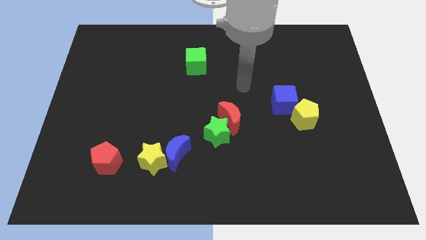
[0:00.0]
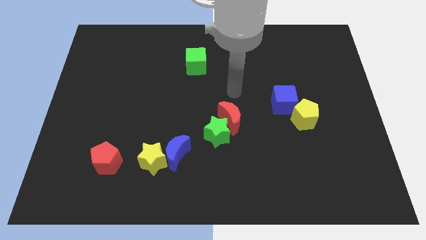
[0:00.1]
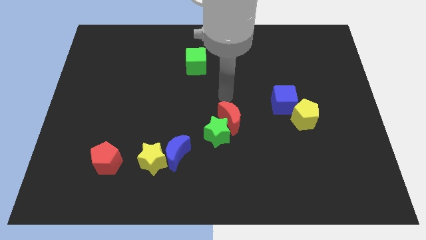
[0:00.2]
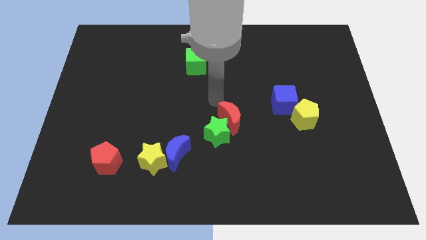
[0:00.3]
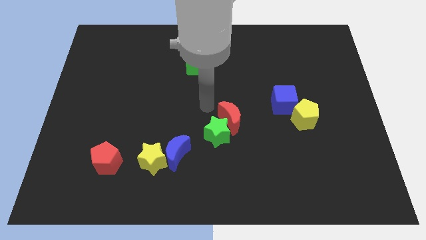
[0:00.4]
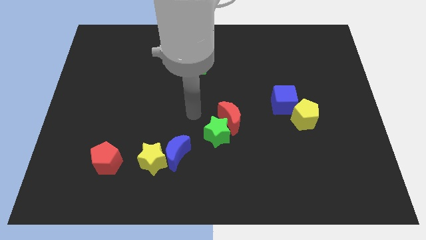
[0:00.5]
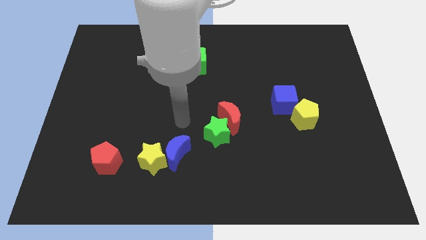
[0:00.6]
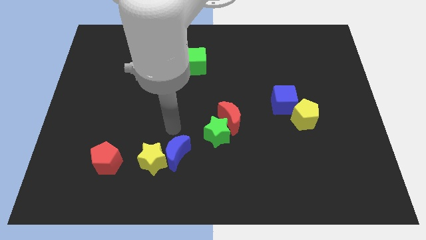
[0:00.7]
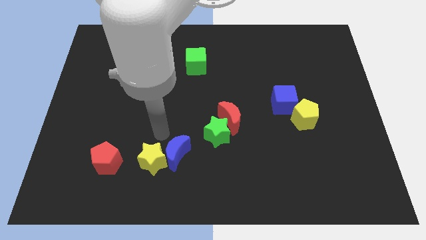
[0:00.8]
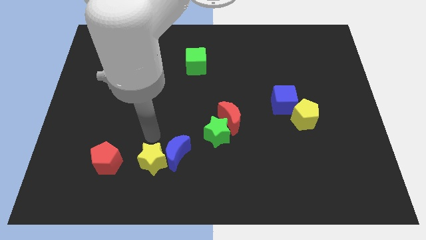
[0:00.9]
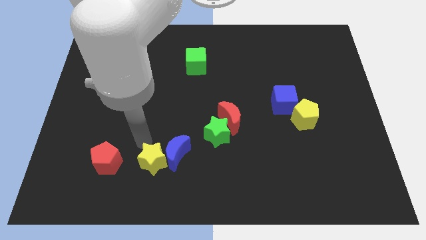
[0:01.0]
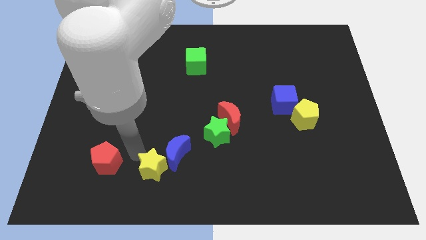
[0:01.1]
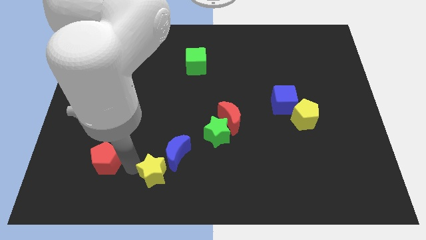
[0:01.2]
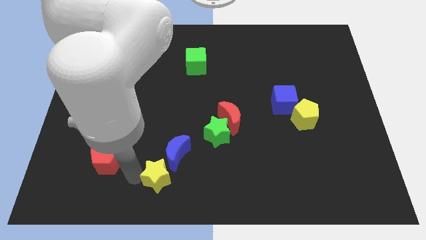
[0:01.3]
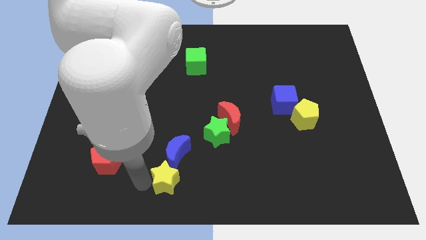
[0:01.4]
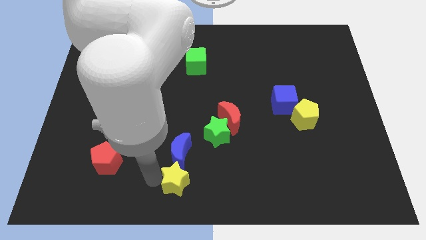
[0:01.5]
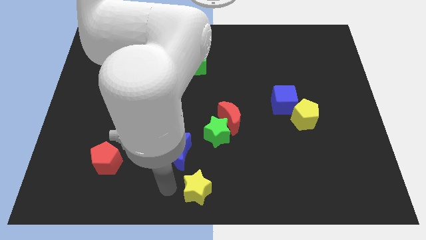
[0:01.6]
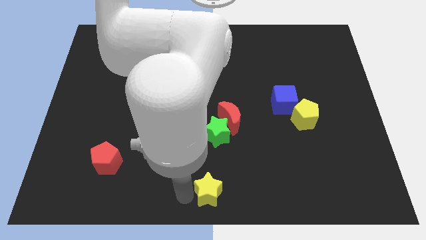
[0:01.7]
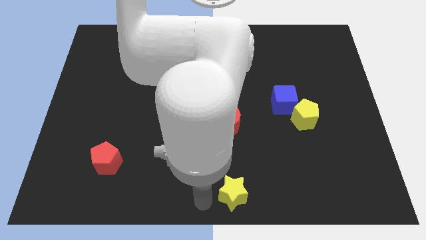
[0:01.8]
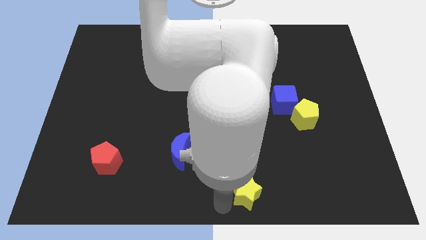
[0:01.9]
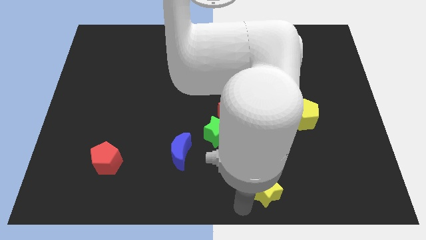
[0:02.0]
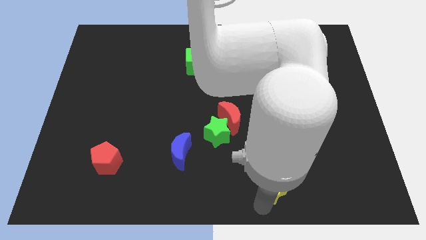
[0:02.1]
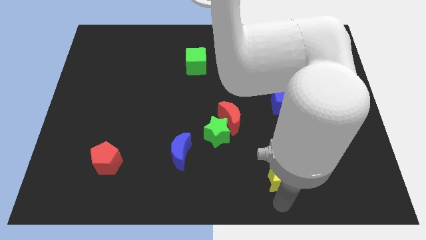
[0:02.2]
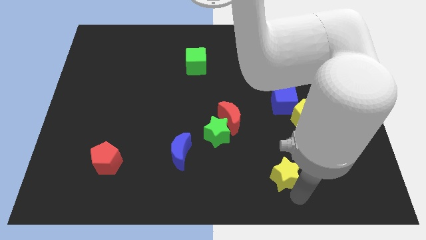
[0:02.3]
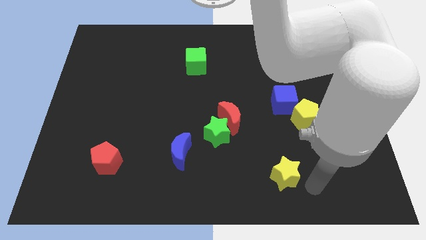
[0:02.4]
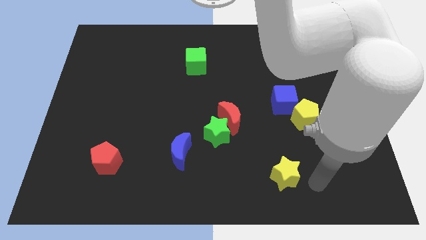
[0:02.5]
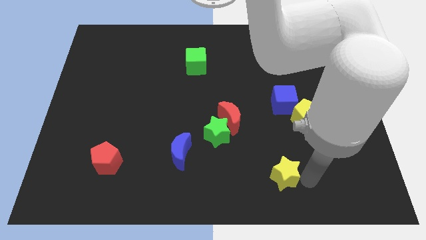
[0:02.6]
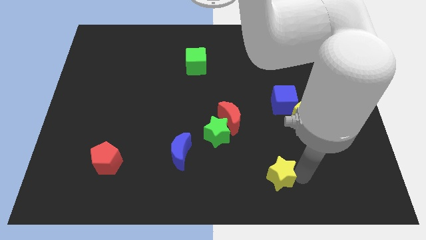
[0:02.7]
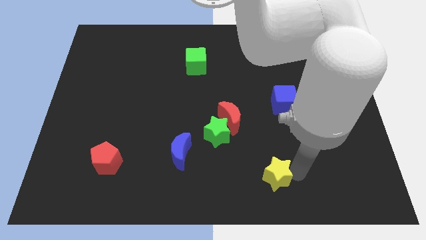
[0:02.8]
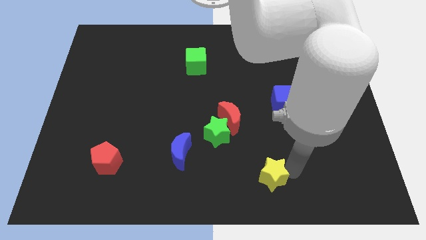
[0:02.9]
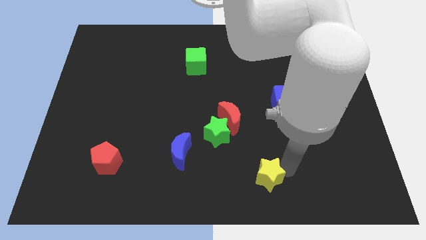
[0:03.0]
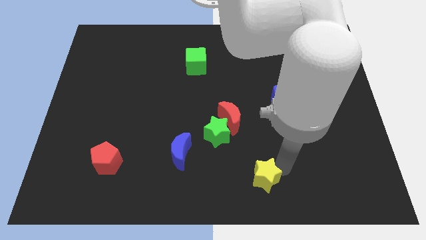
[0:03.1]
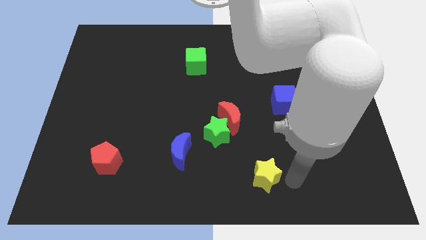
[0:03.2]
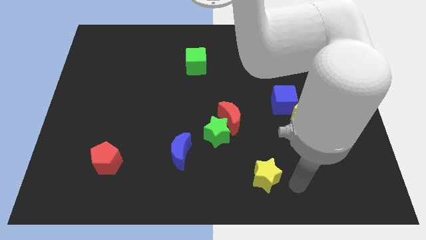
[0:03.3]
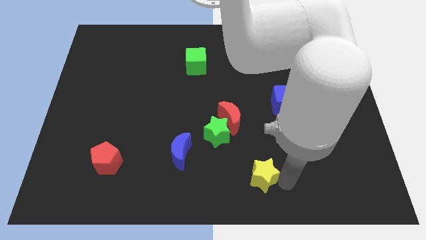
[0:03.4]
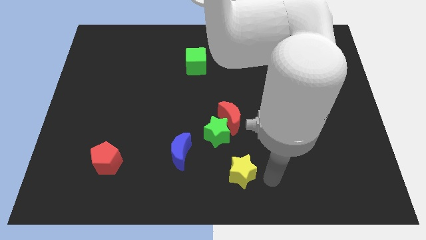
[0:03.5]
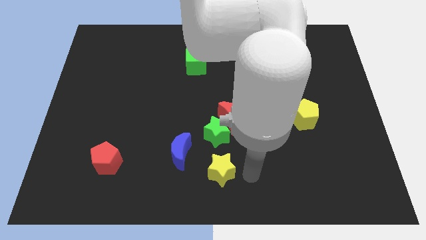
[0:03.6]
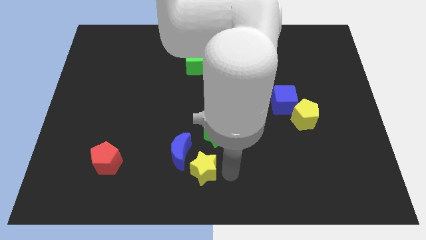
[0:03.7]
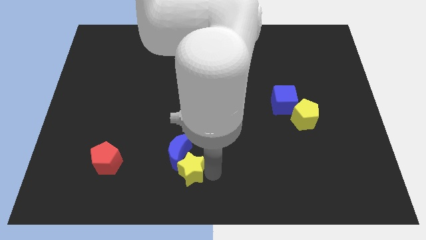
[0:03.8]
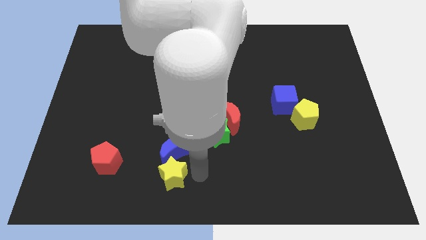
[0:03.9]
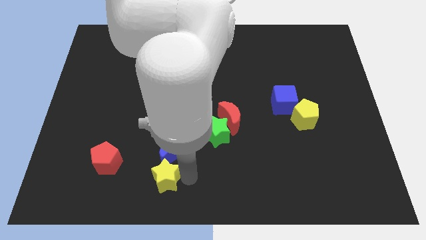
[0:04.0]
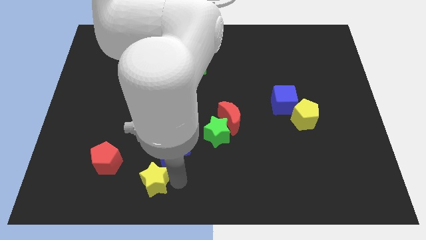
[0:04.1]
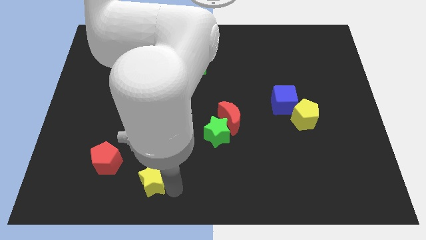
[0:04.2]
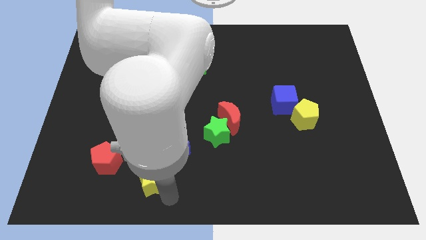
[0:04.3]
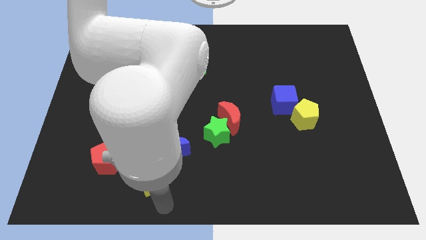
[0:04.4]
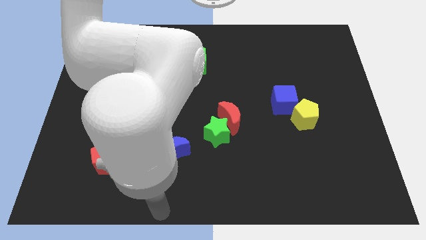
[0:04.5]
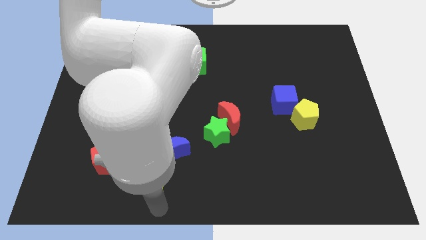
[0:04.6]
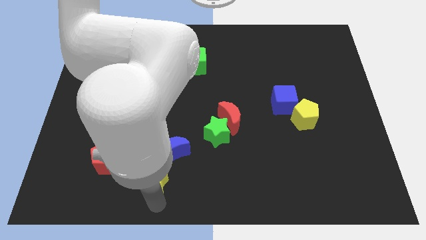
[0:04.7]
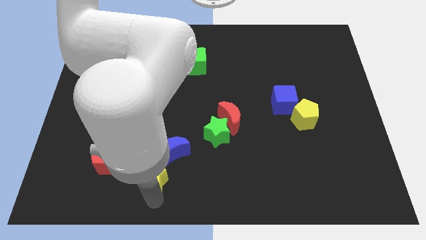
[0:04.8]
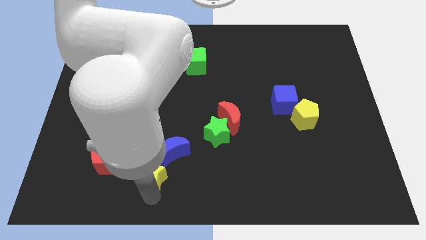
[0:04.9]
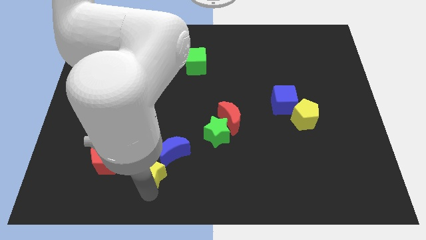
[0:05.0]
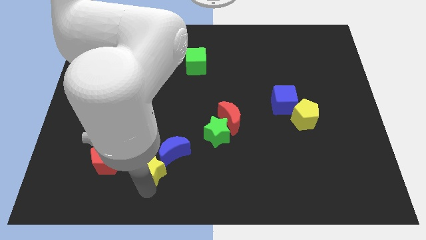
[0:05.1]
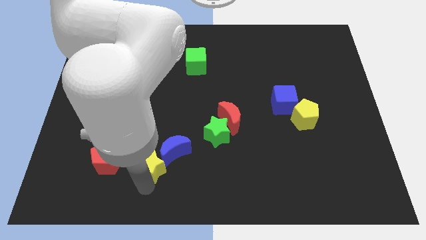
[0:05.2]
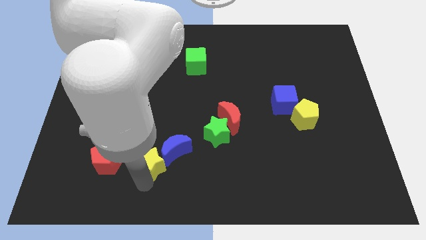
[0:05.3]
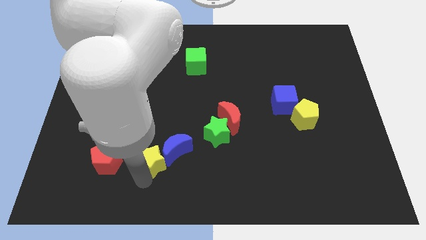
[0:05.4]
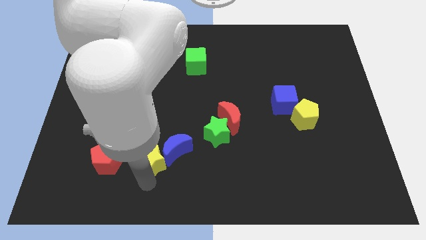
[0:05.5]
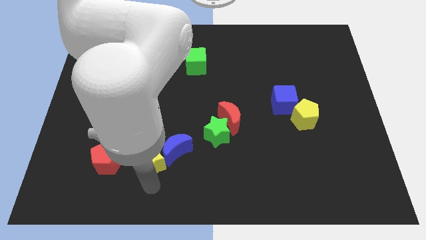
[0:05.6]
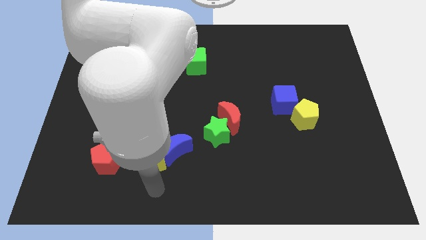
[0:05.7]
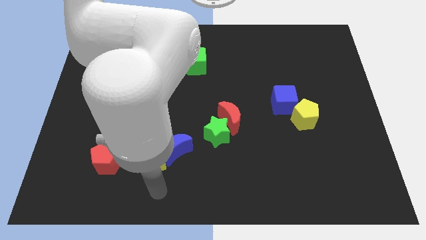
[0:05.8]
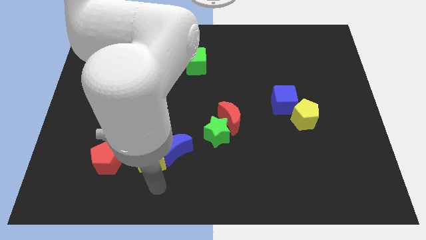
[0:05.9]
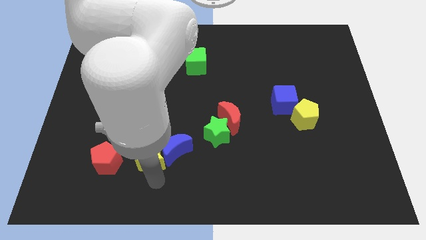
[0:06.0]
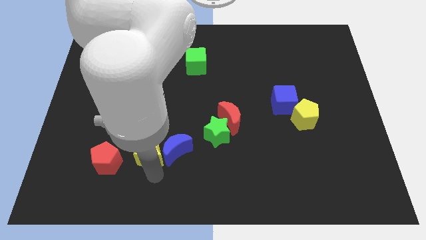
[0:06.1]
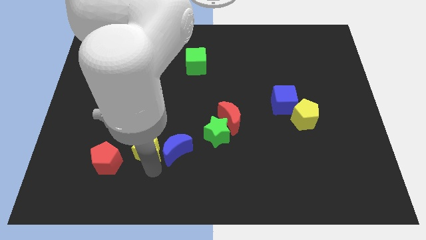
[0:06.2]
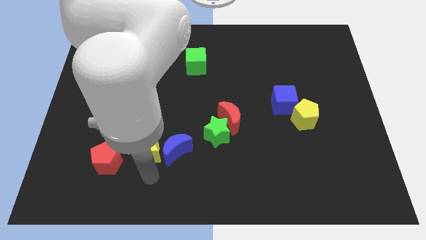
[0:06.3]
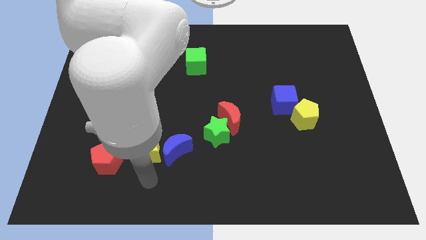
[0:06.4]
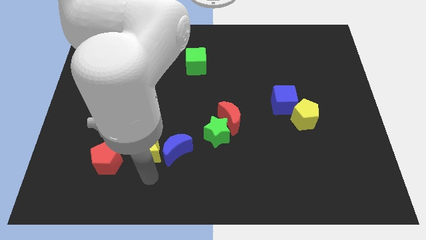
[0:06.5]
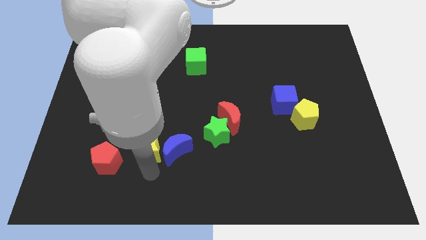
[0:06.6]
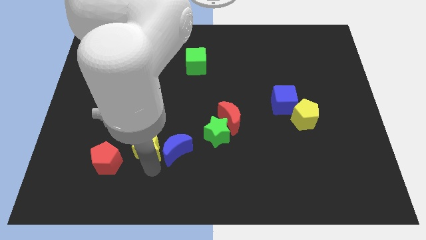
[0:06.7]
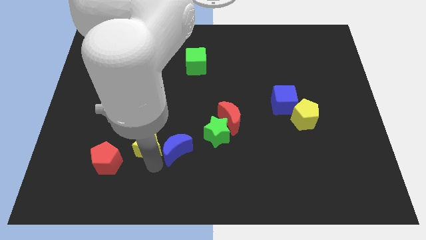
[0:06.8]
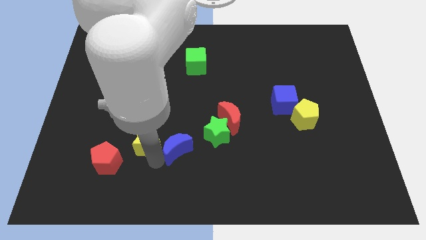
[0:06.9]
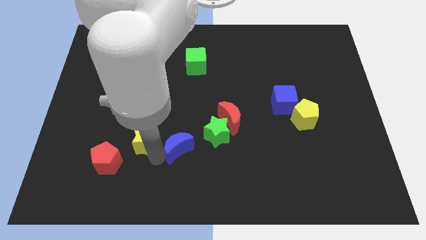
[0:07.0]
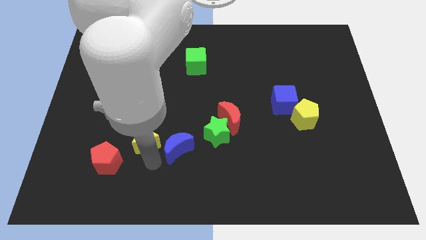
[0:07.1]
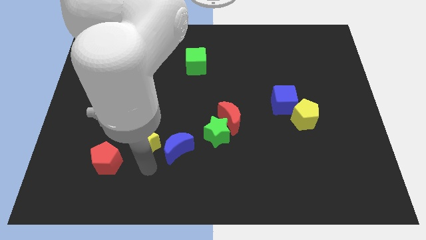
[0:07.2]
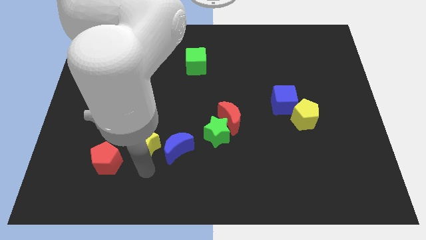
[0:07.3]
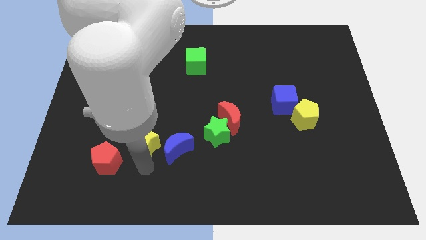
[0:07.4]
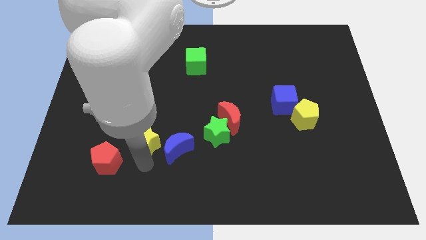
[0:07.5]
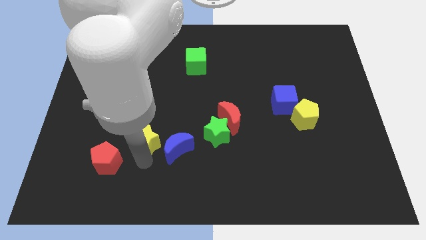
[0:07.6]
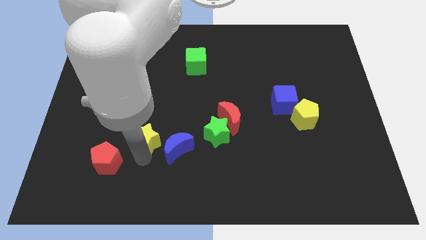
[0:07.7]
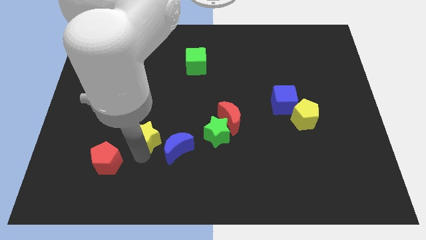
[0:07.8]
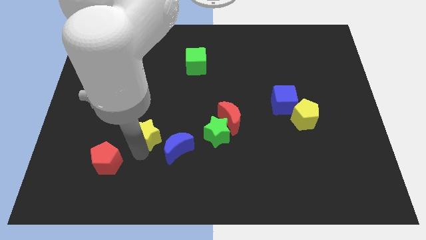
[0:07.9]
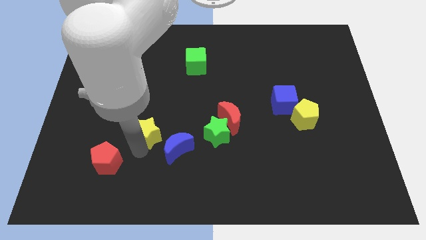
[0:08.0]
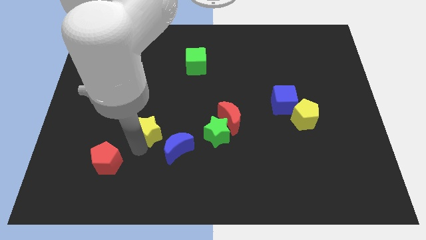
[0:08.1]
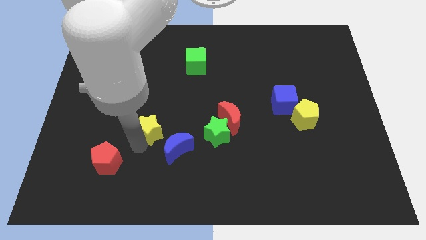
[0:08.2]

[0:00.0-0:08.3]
move the yellow star a bit up
